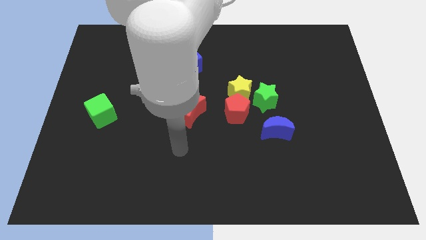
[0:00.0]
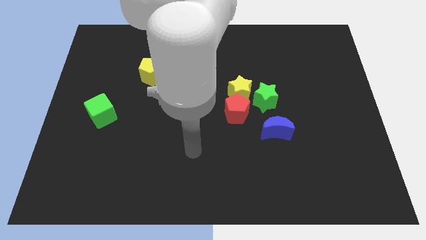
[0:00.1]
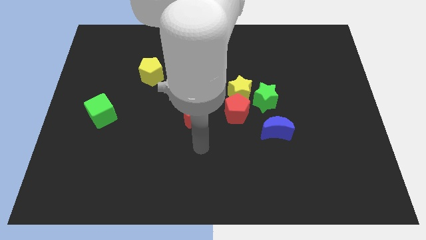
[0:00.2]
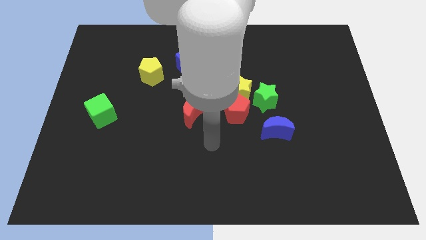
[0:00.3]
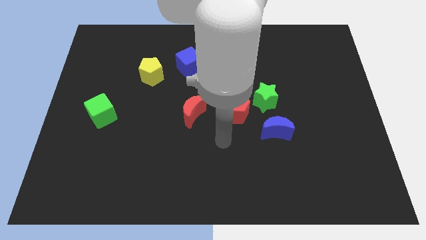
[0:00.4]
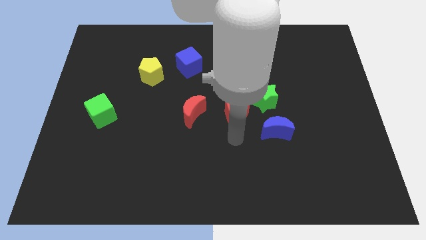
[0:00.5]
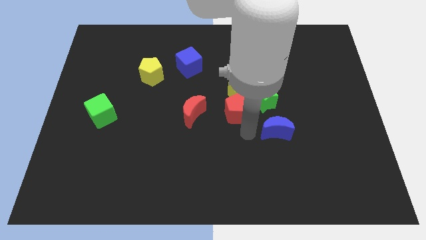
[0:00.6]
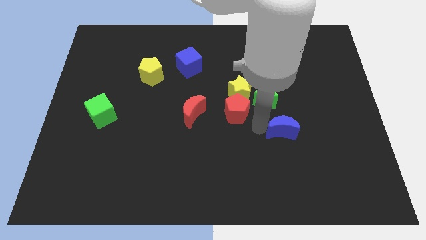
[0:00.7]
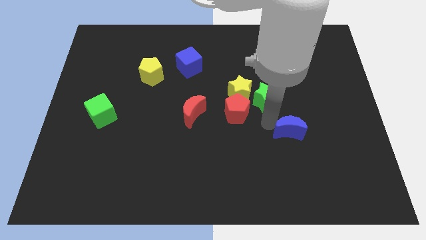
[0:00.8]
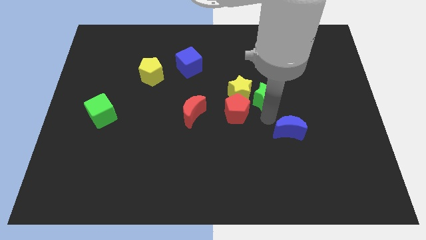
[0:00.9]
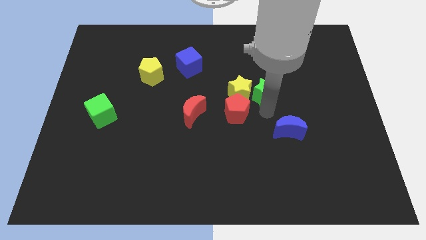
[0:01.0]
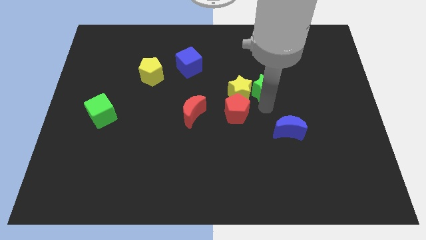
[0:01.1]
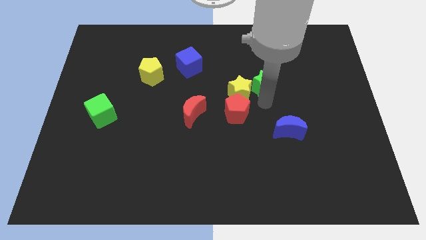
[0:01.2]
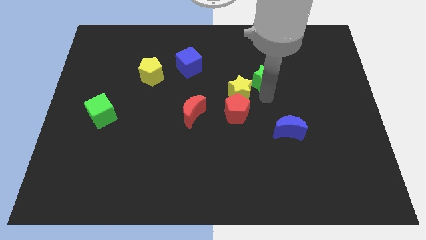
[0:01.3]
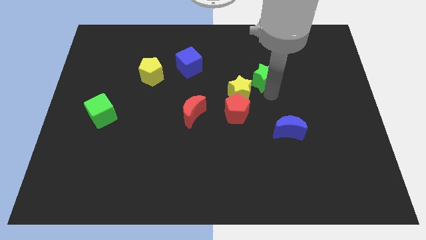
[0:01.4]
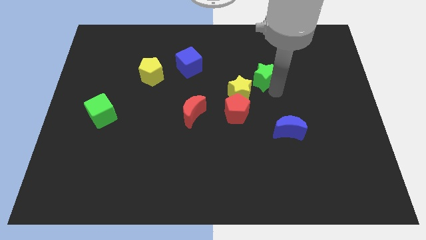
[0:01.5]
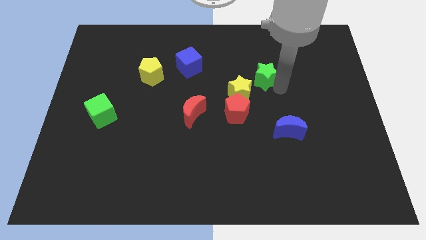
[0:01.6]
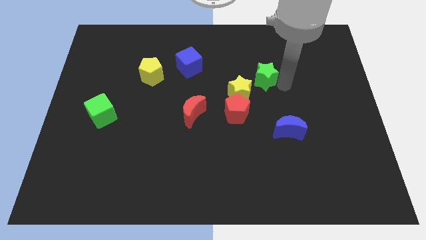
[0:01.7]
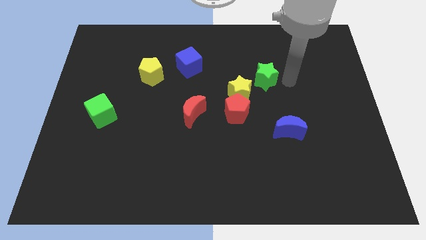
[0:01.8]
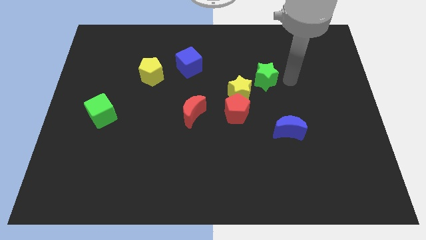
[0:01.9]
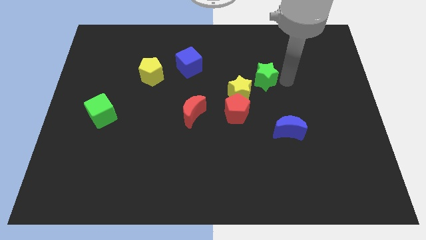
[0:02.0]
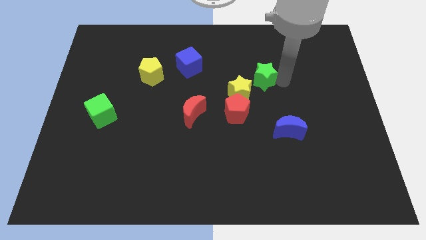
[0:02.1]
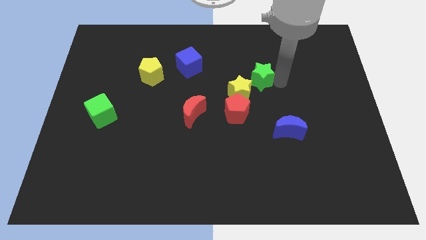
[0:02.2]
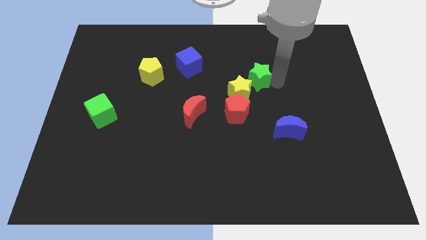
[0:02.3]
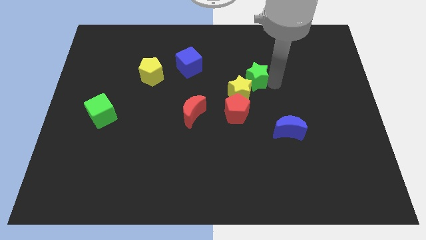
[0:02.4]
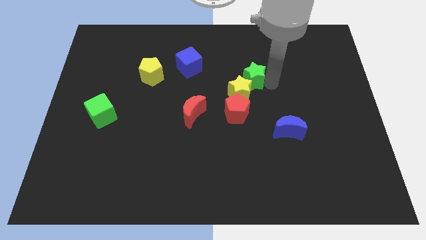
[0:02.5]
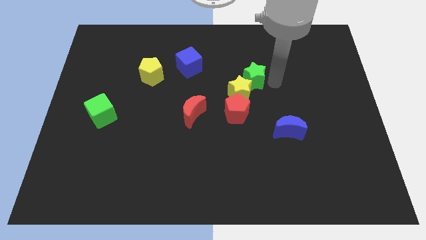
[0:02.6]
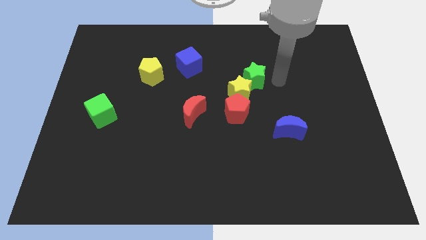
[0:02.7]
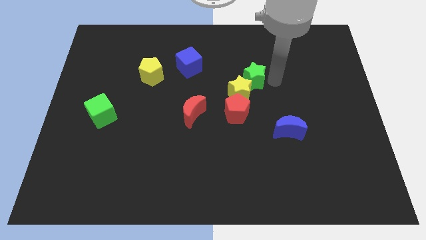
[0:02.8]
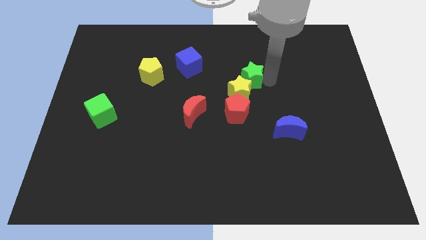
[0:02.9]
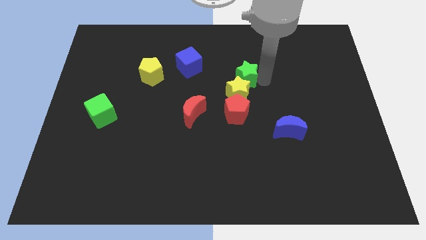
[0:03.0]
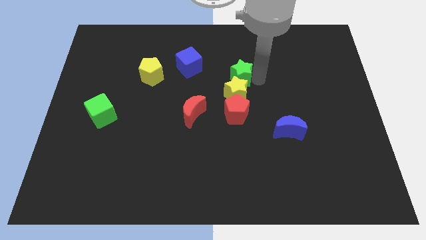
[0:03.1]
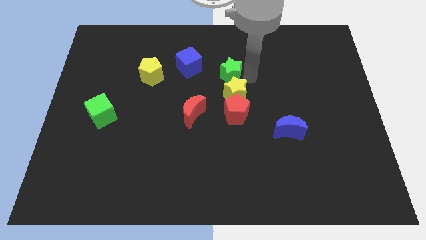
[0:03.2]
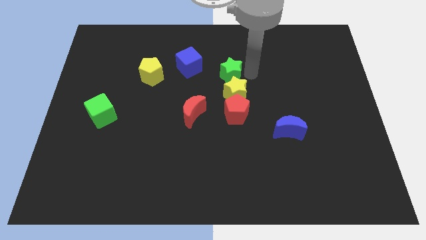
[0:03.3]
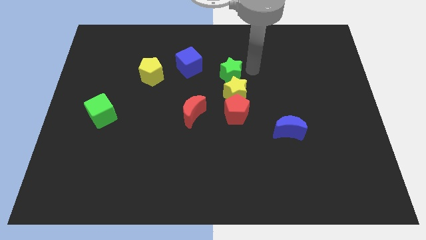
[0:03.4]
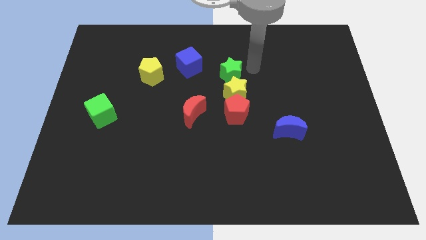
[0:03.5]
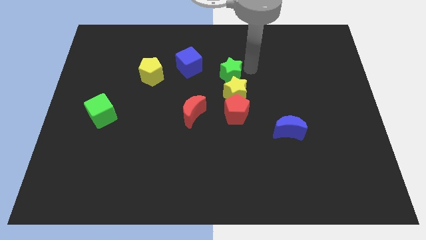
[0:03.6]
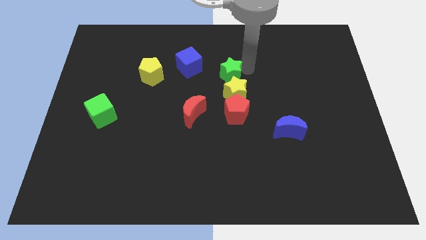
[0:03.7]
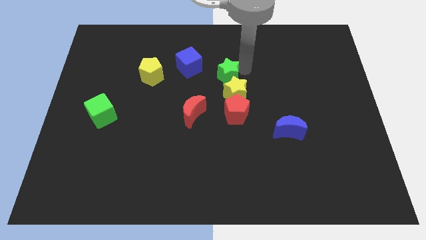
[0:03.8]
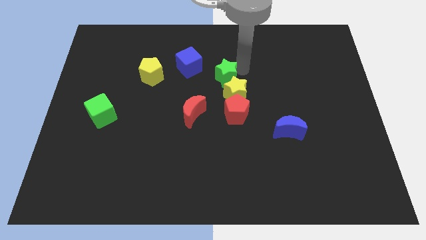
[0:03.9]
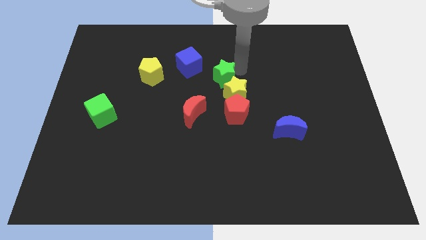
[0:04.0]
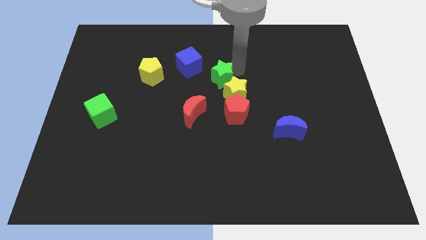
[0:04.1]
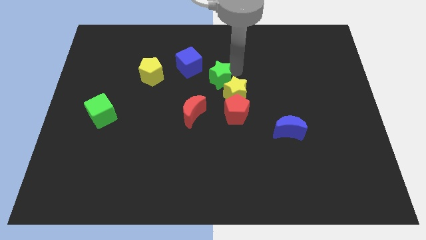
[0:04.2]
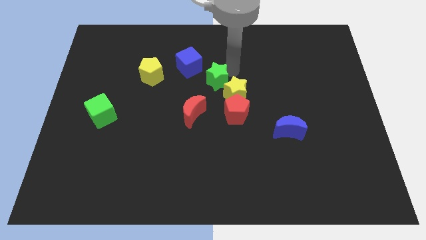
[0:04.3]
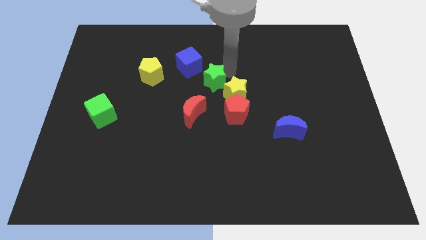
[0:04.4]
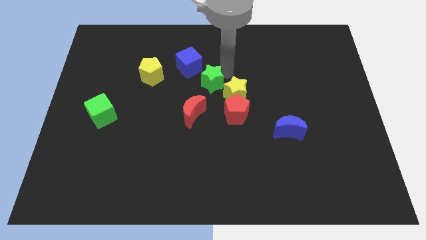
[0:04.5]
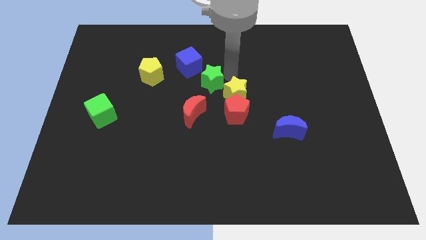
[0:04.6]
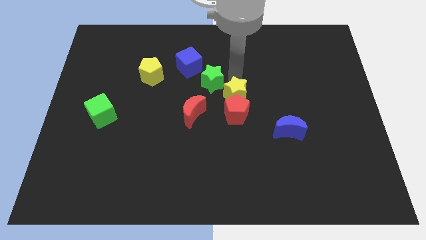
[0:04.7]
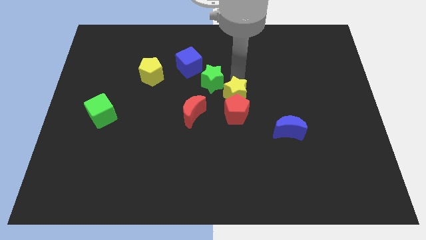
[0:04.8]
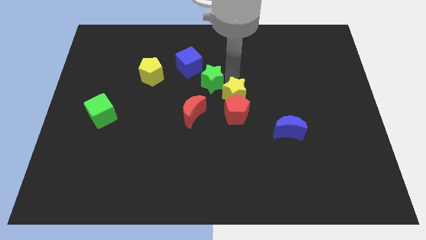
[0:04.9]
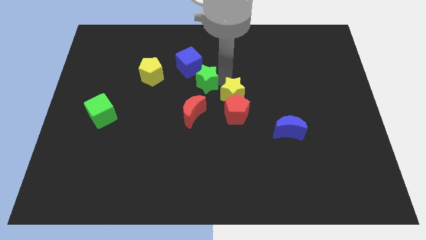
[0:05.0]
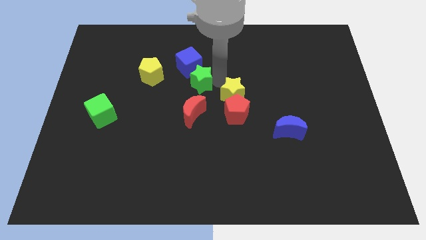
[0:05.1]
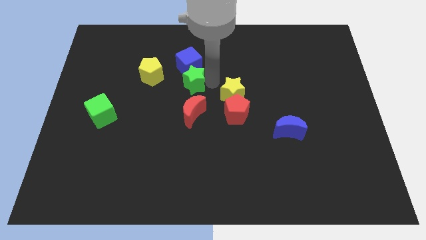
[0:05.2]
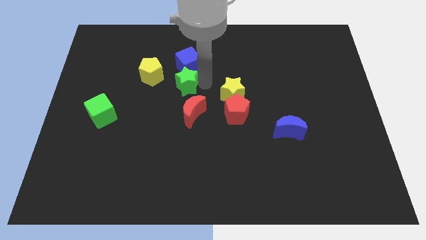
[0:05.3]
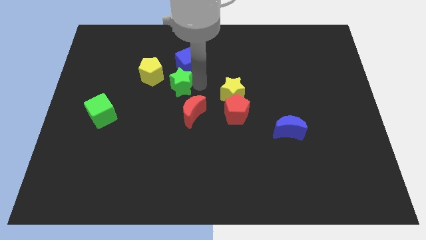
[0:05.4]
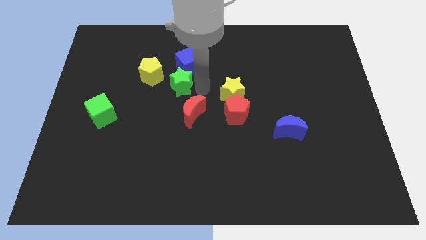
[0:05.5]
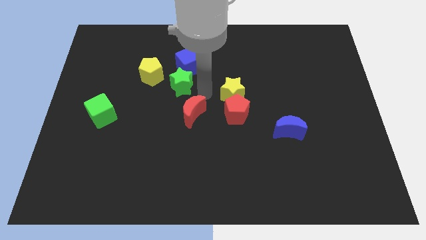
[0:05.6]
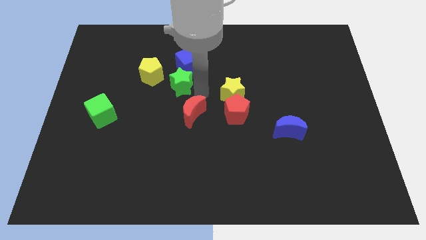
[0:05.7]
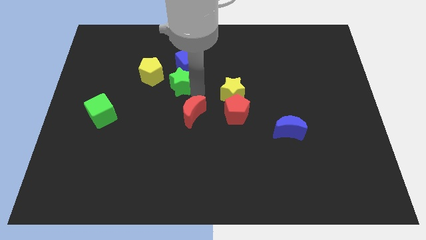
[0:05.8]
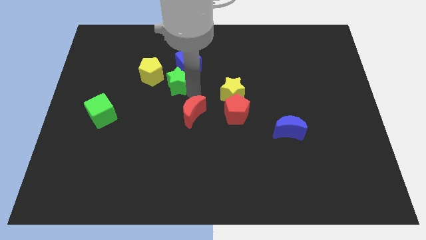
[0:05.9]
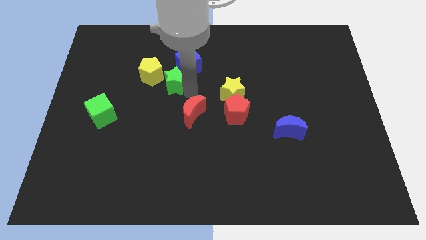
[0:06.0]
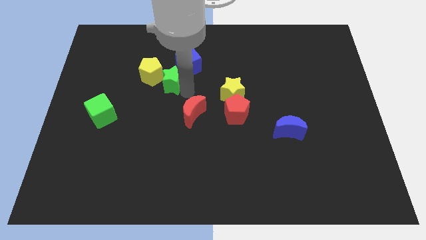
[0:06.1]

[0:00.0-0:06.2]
slide the green star close to the yellow pentagon

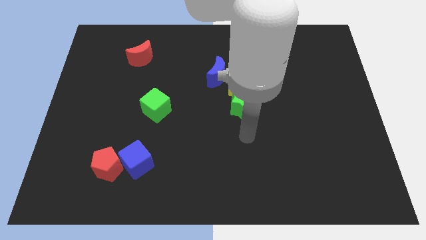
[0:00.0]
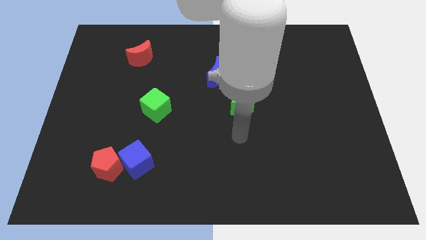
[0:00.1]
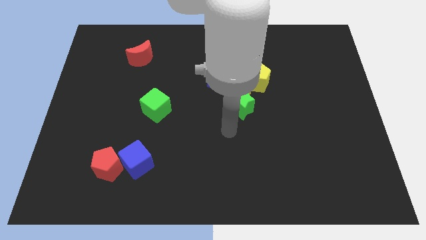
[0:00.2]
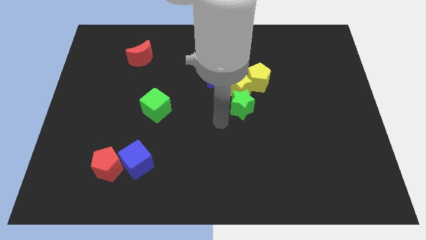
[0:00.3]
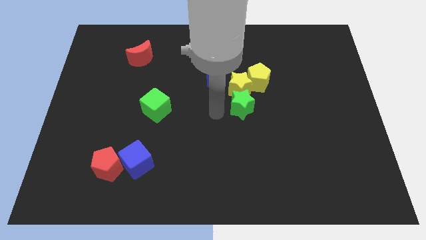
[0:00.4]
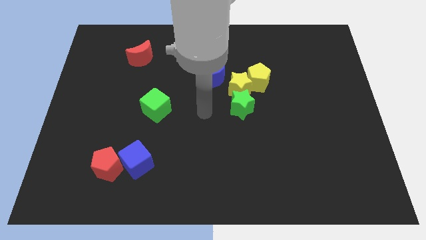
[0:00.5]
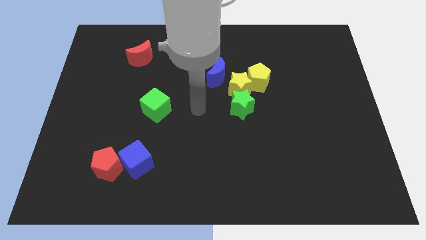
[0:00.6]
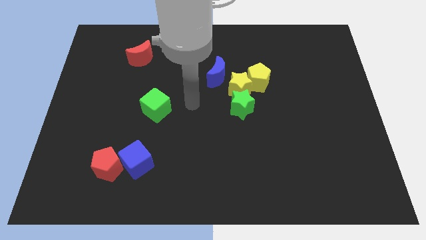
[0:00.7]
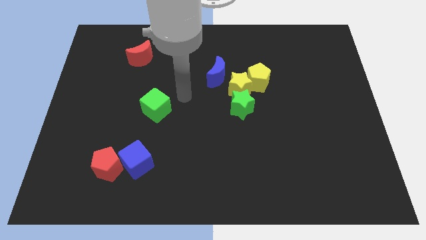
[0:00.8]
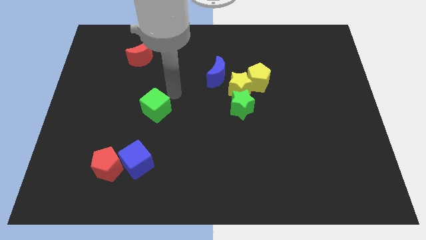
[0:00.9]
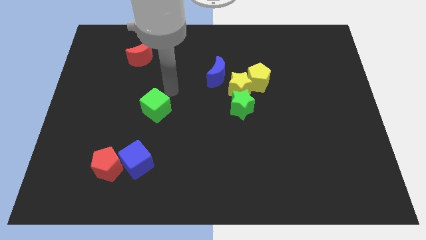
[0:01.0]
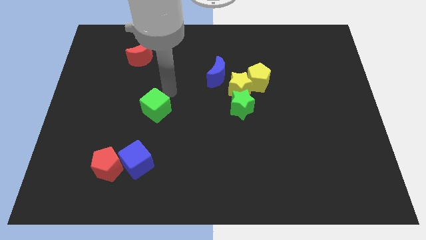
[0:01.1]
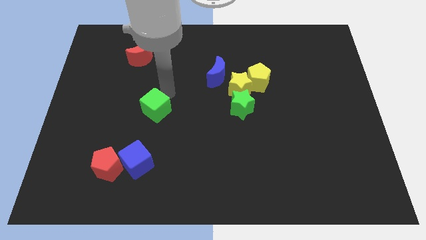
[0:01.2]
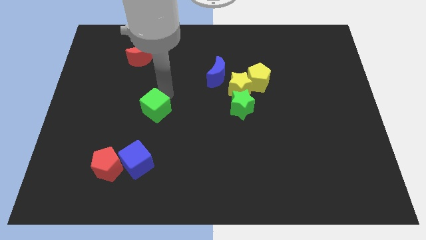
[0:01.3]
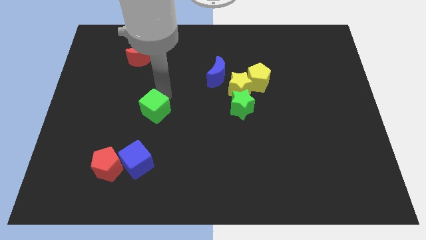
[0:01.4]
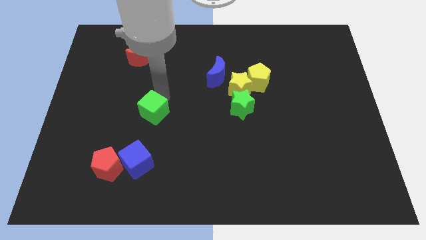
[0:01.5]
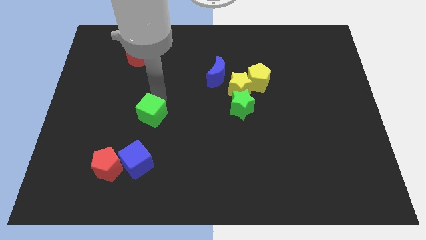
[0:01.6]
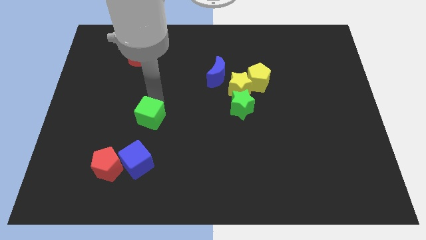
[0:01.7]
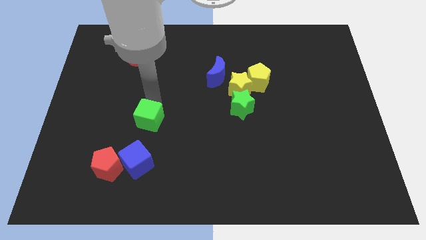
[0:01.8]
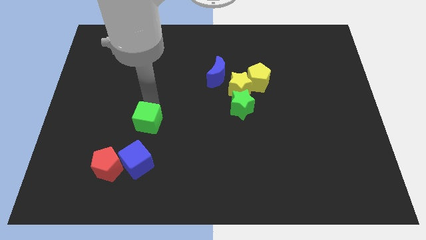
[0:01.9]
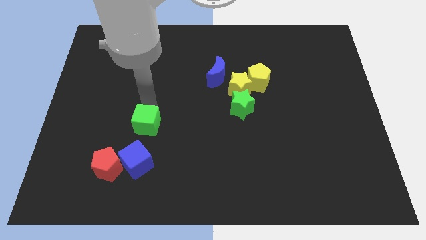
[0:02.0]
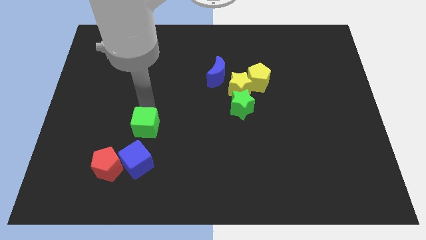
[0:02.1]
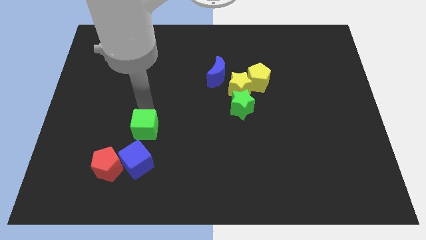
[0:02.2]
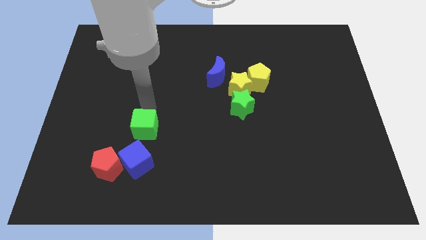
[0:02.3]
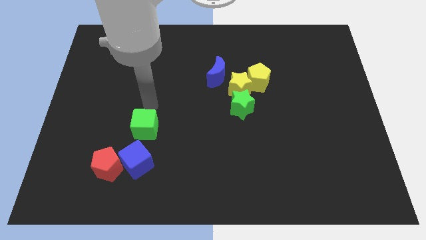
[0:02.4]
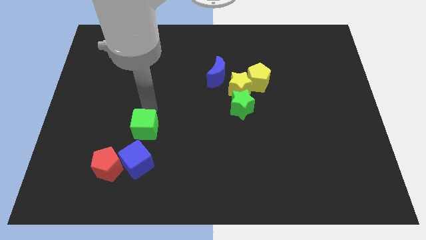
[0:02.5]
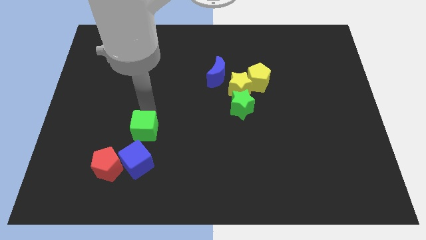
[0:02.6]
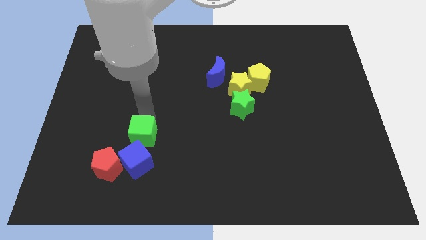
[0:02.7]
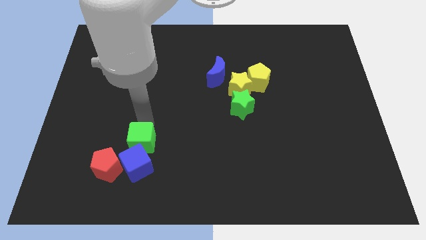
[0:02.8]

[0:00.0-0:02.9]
move the green cube to the blue cube
